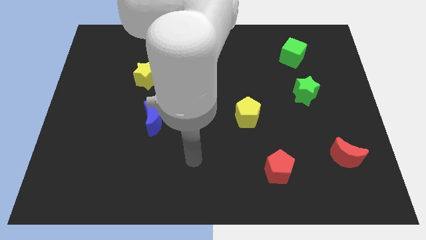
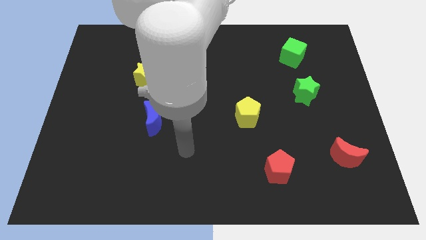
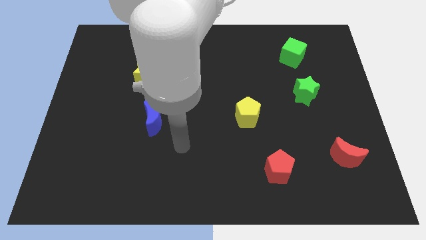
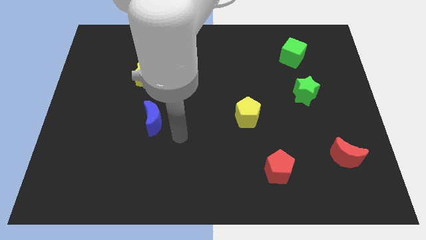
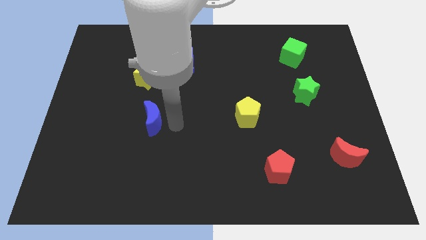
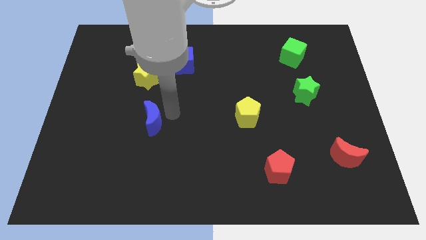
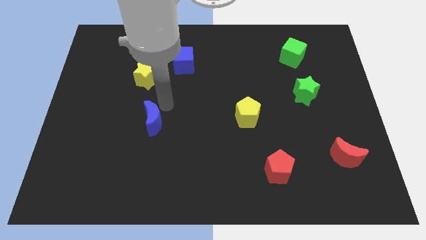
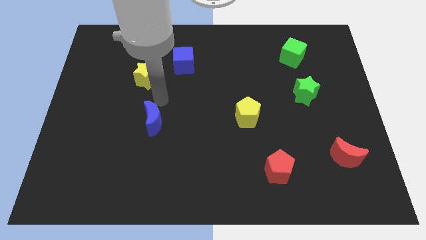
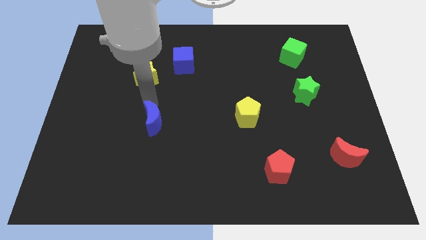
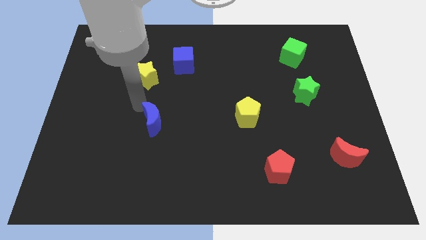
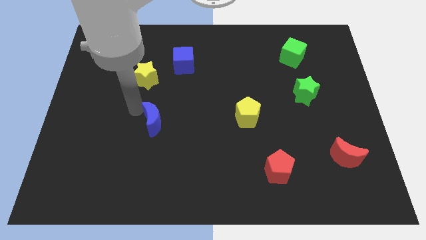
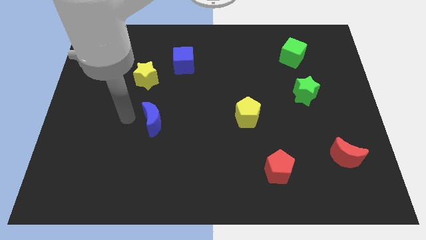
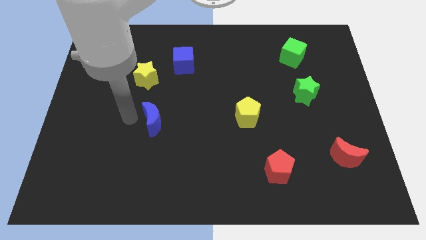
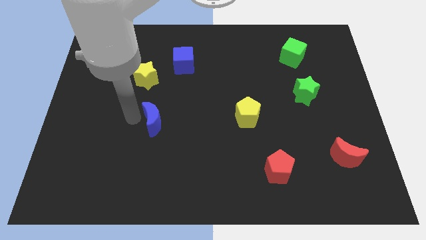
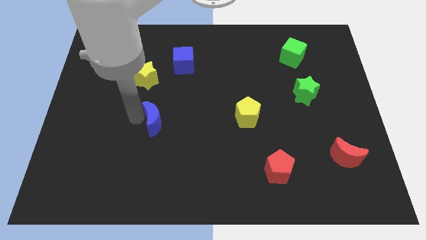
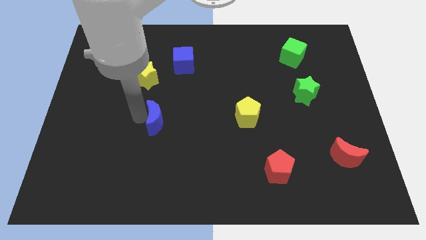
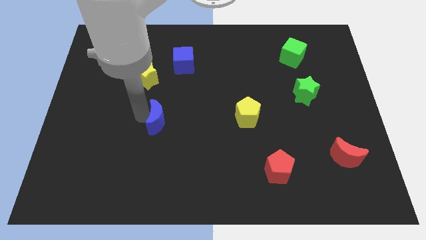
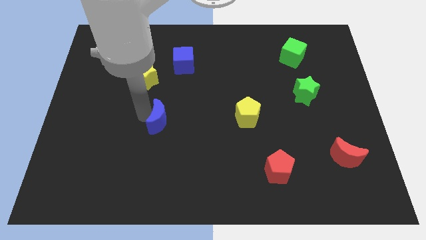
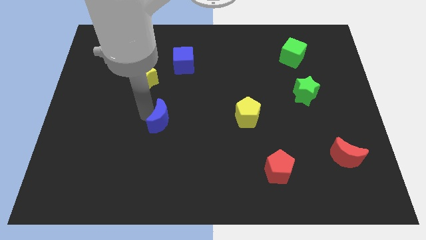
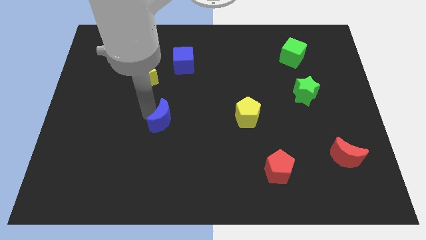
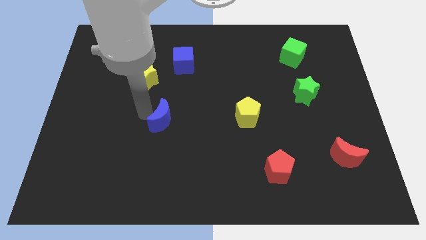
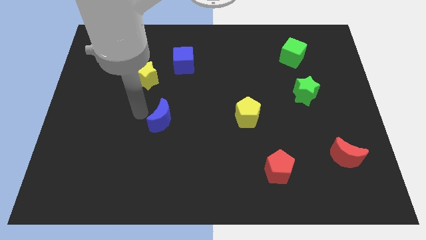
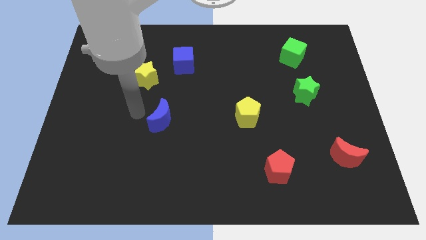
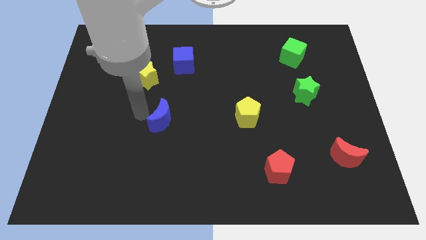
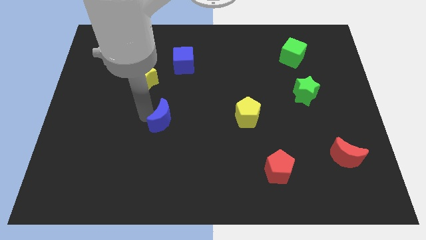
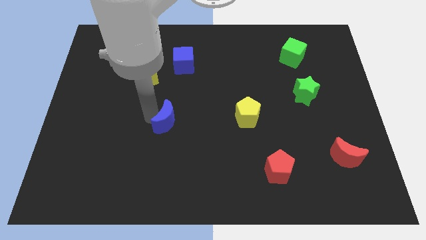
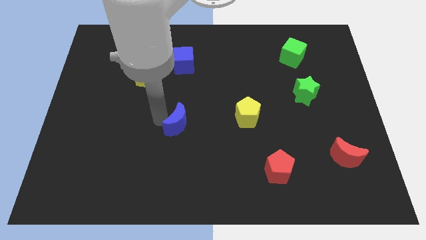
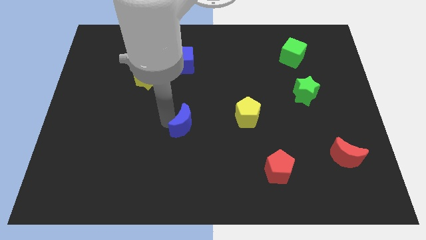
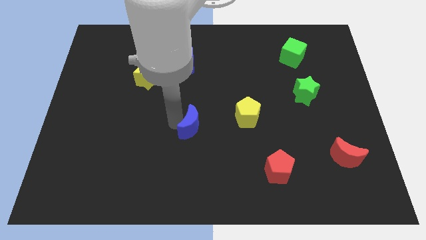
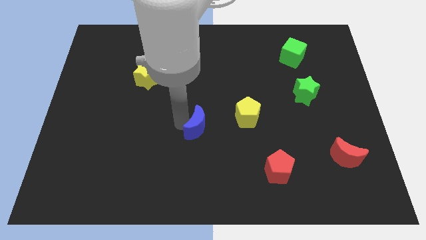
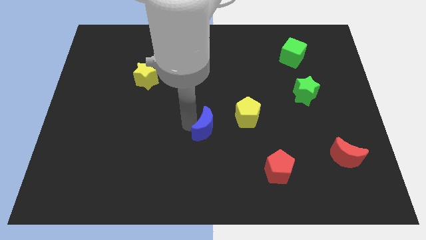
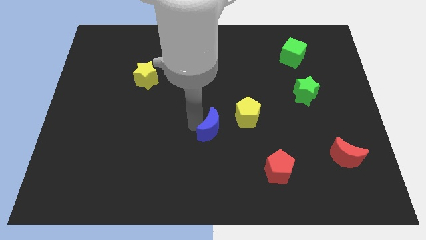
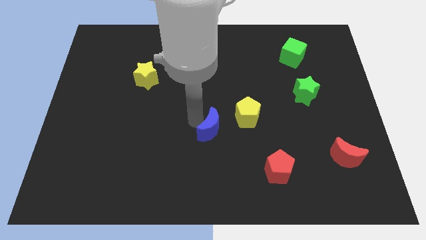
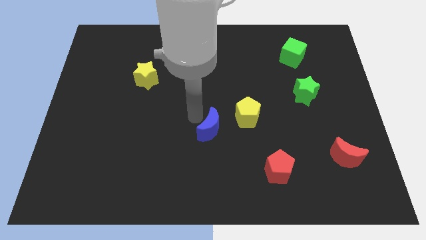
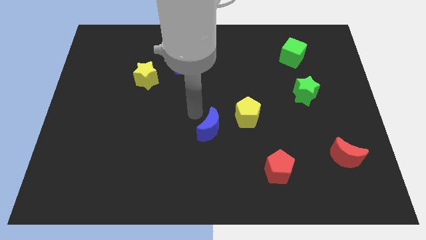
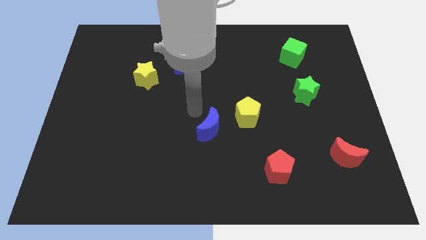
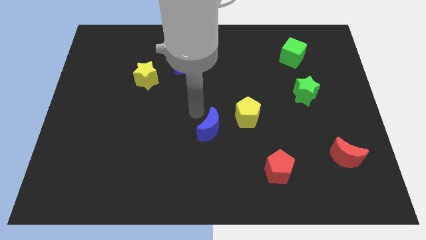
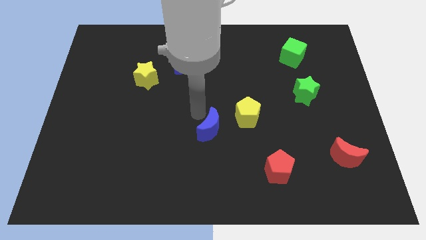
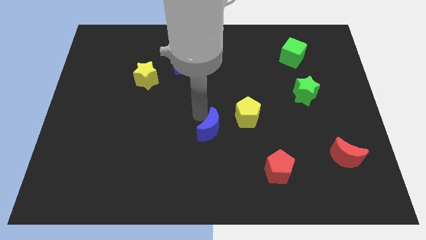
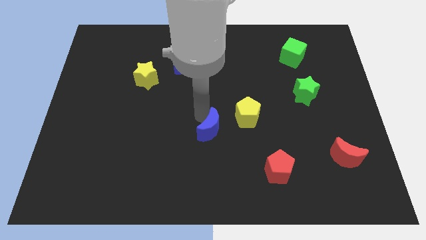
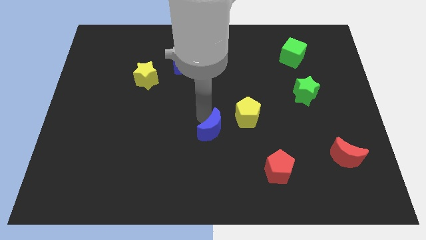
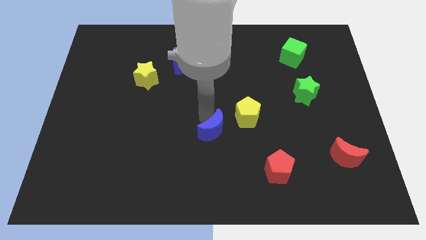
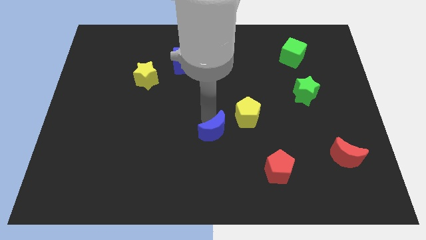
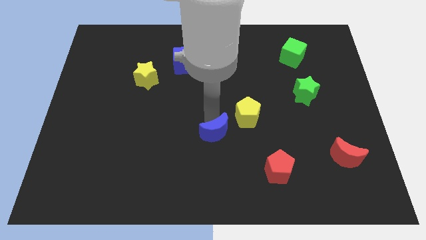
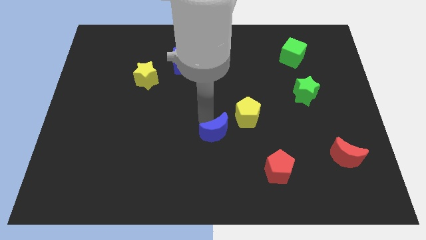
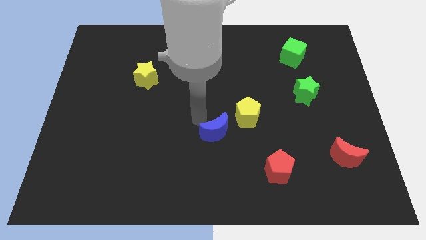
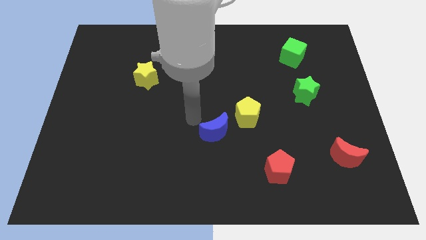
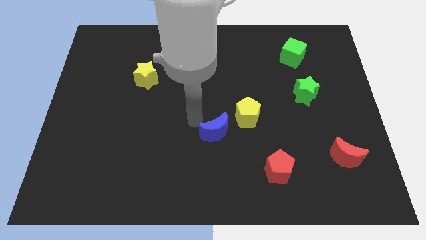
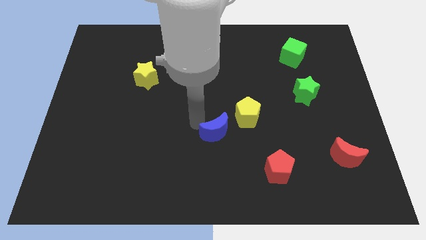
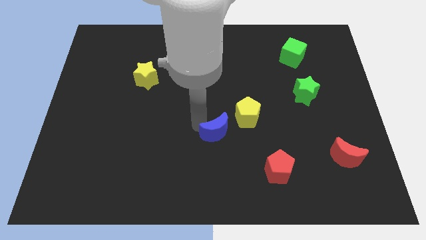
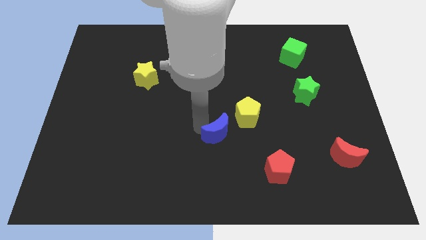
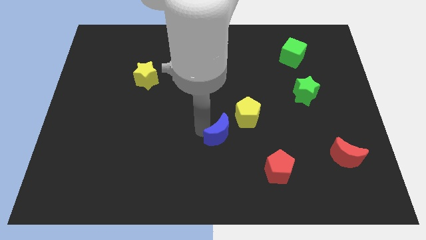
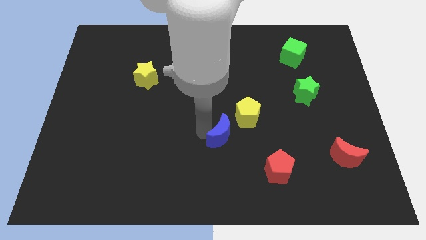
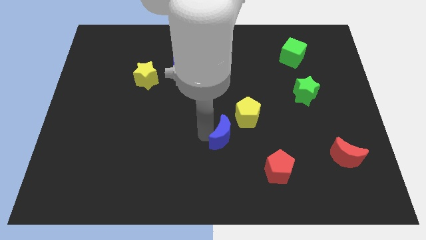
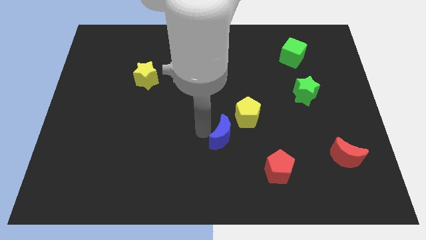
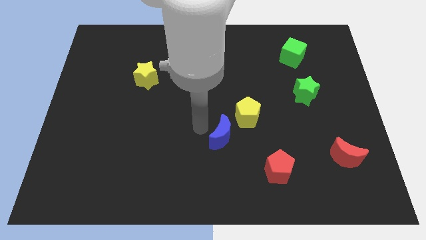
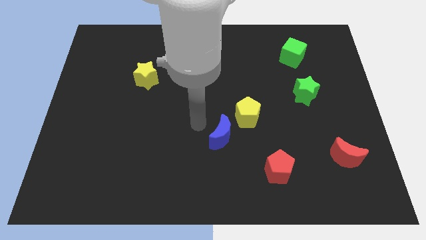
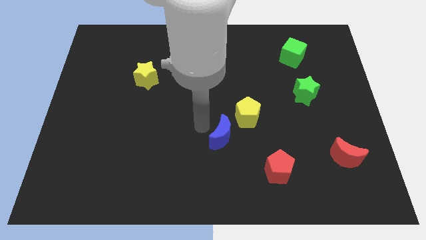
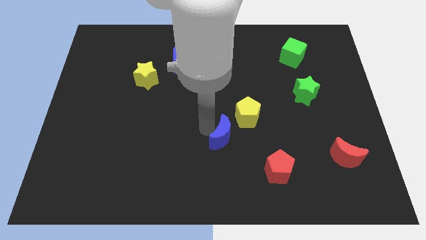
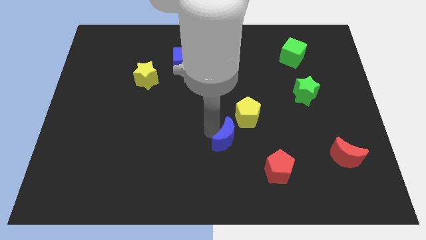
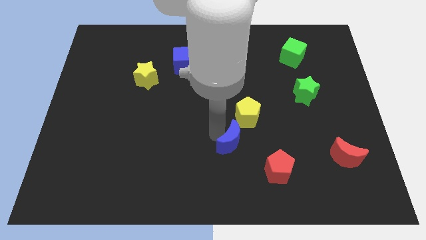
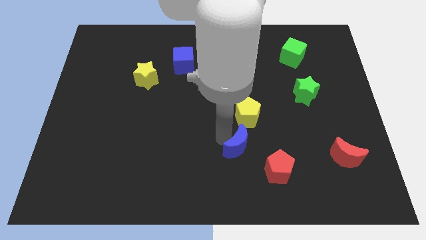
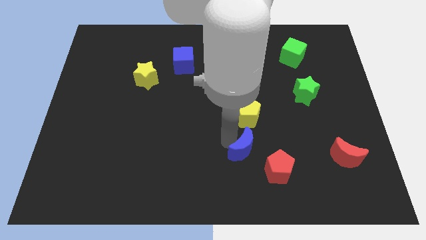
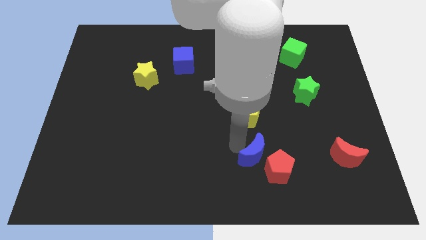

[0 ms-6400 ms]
put the blue moon next to the red pentagon

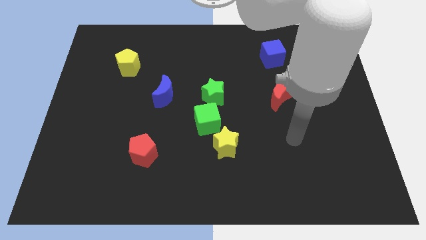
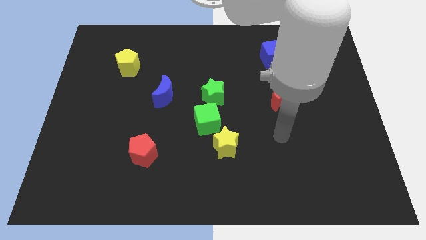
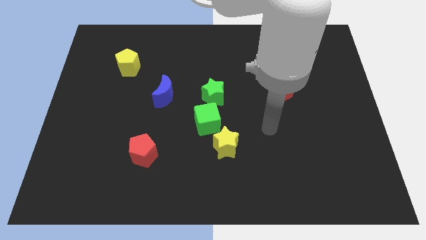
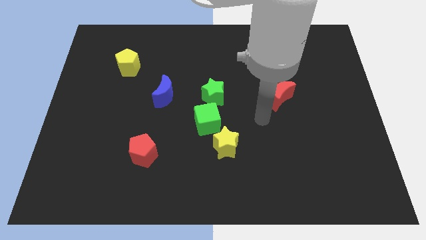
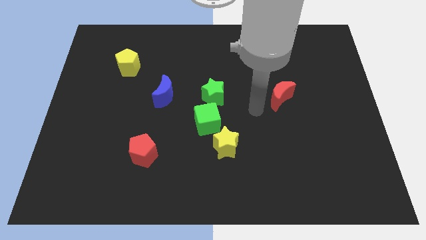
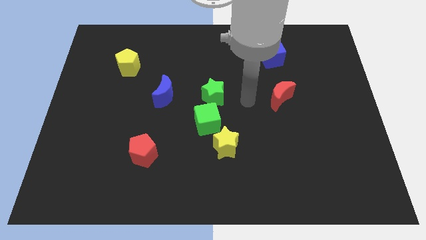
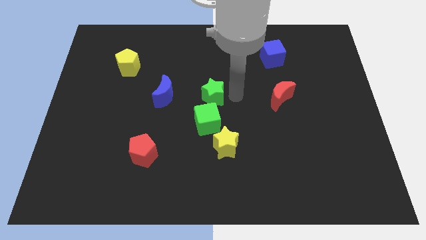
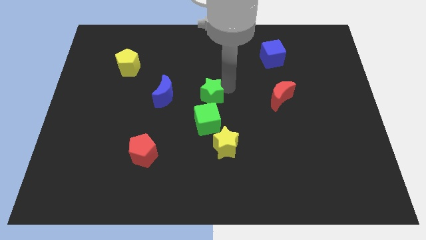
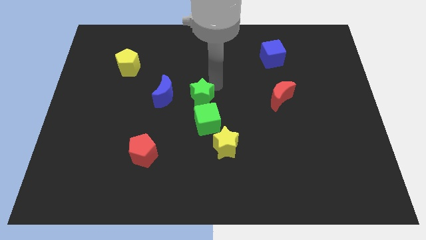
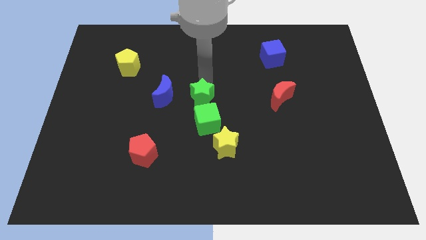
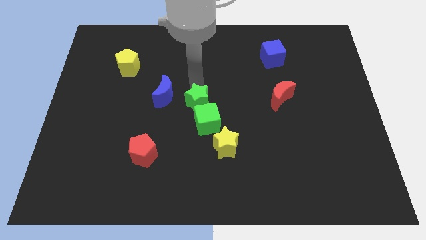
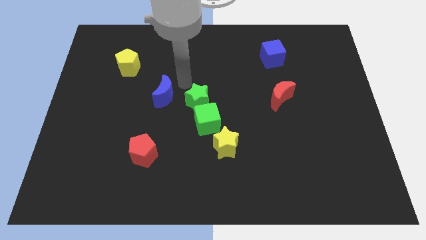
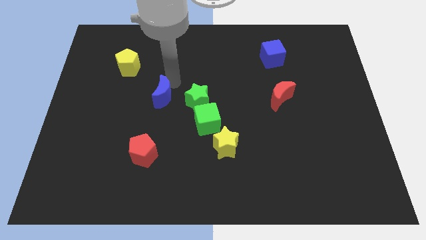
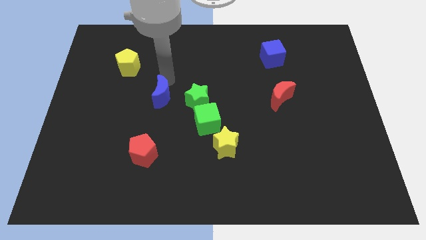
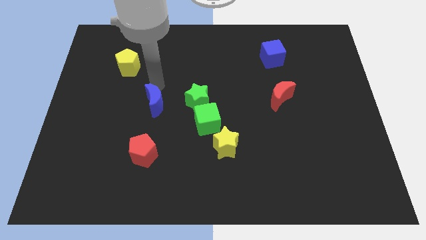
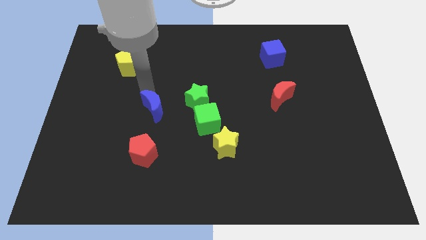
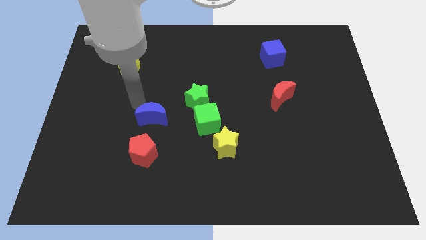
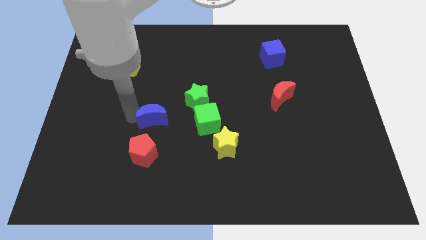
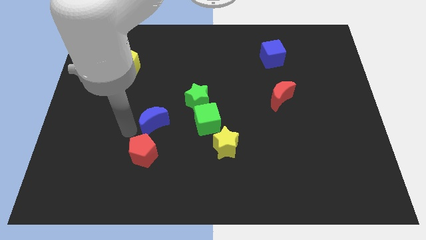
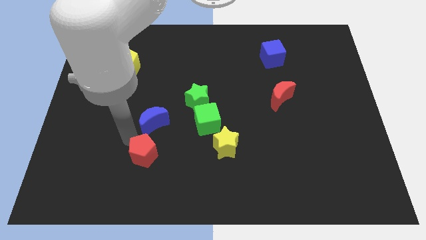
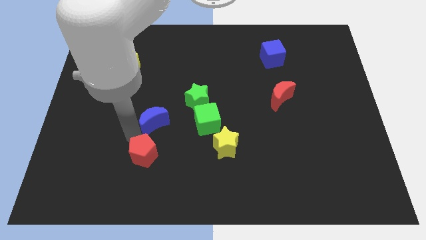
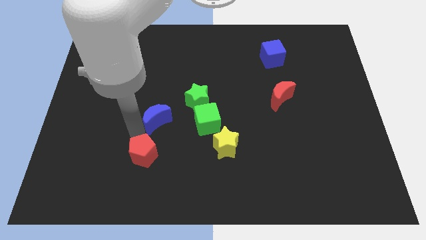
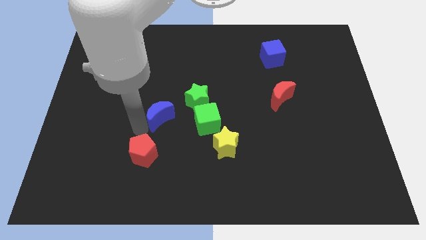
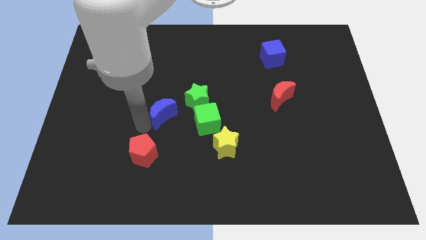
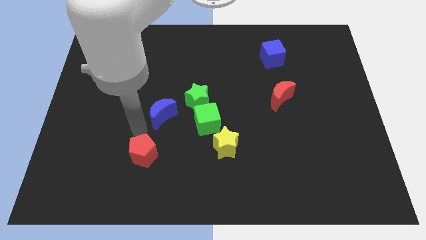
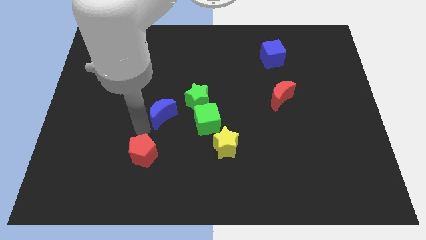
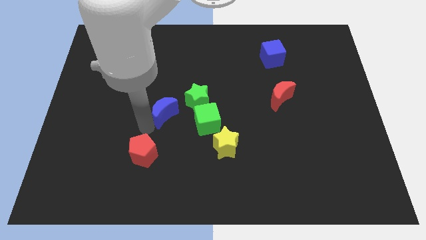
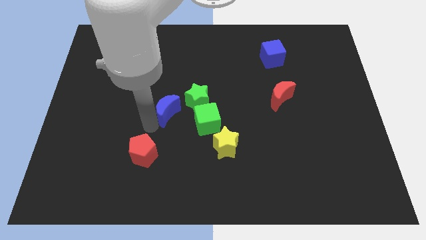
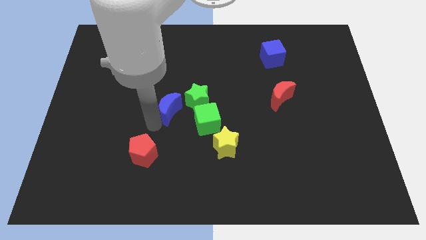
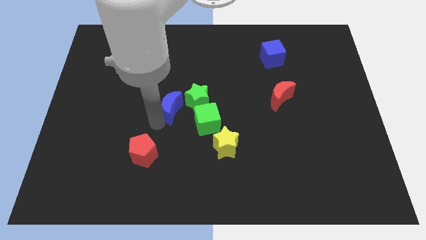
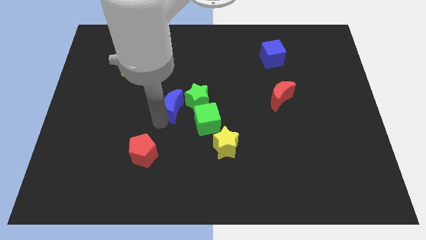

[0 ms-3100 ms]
slide the blue moon close to the green star
